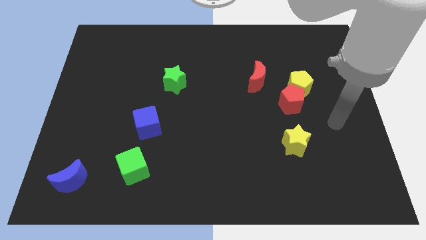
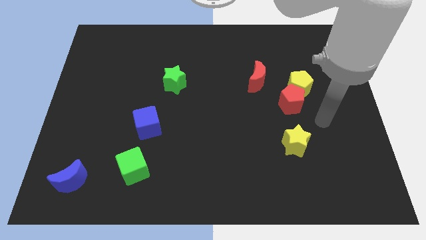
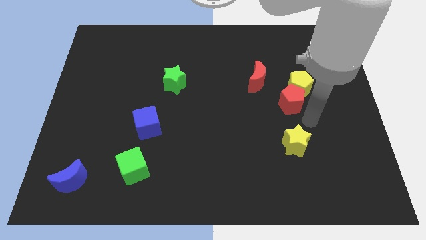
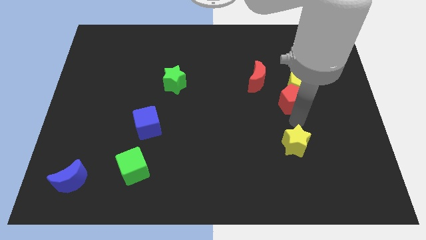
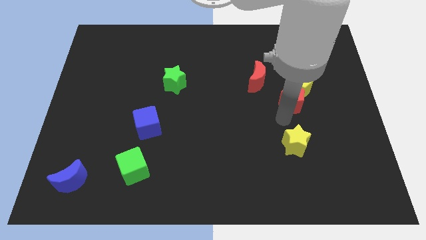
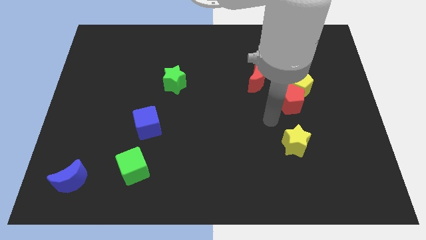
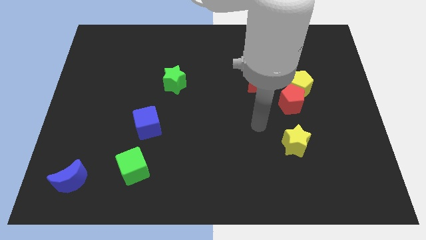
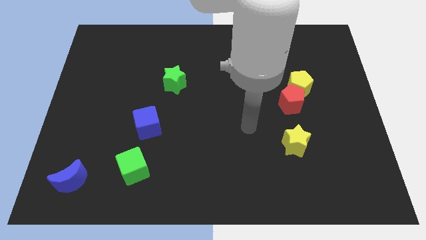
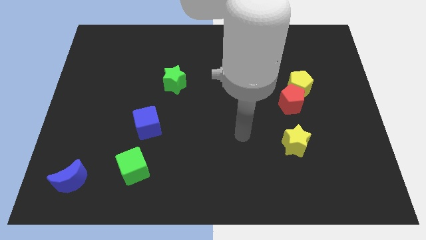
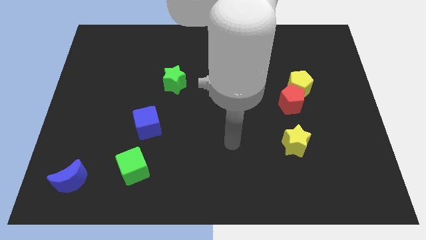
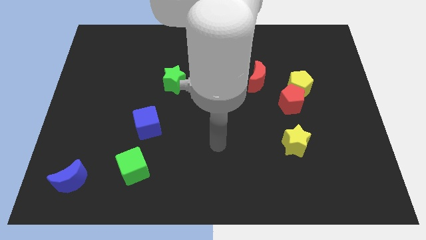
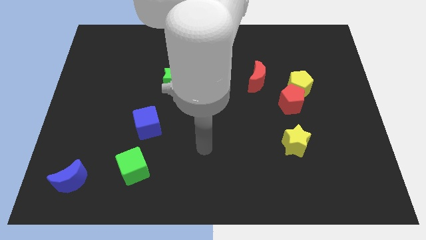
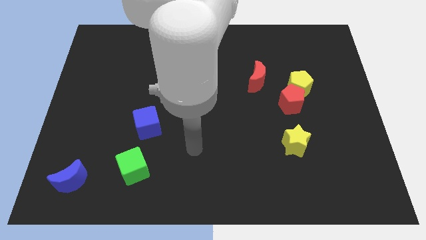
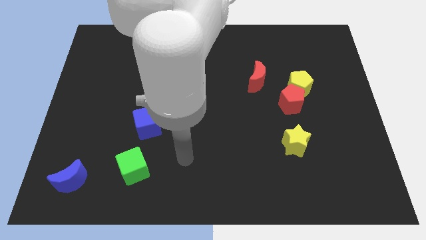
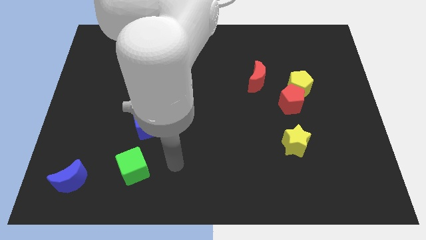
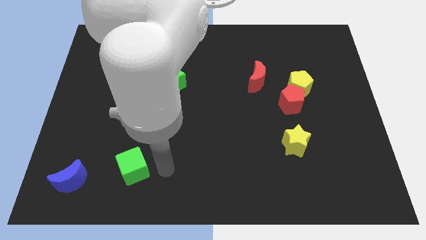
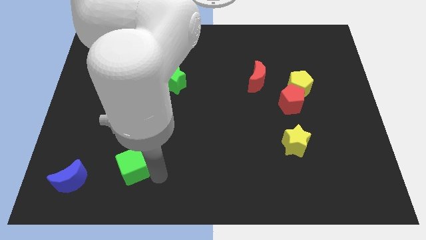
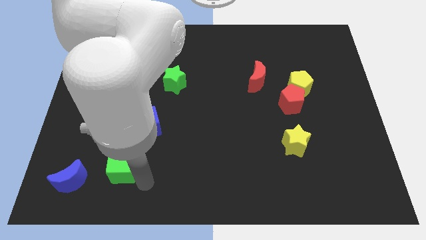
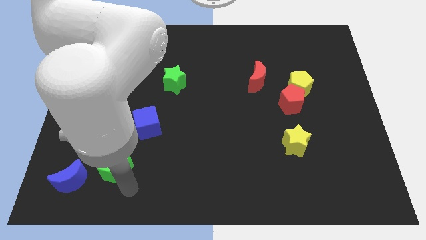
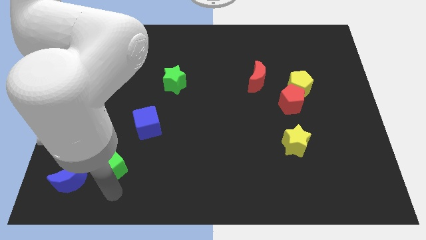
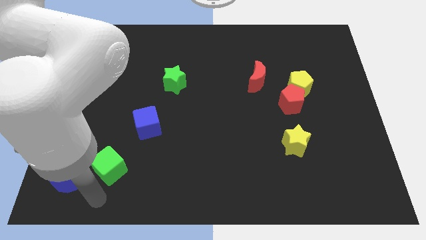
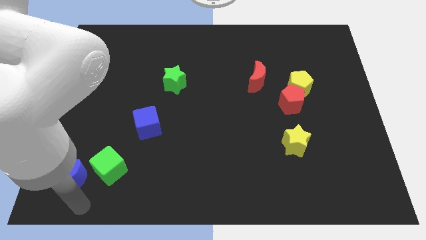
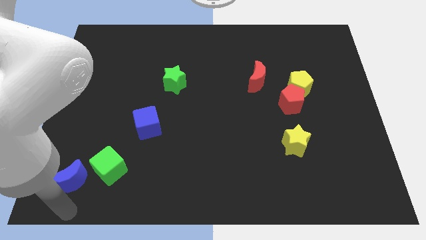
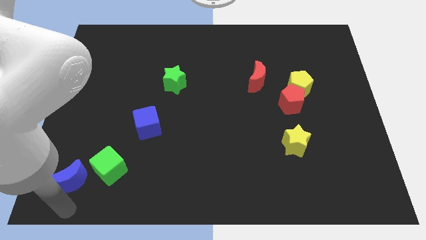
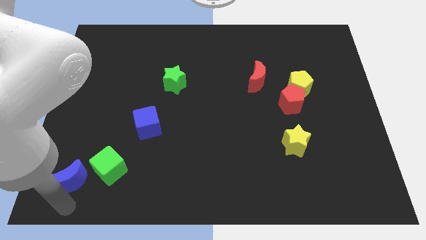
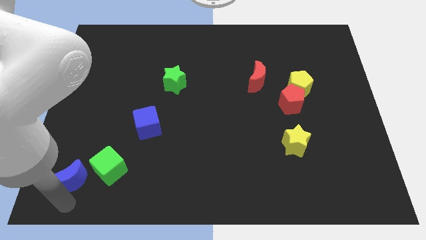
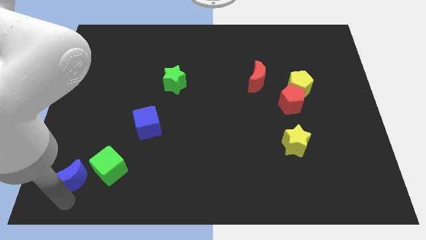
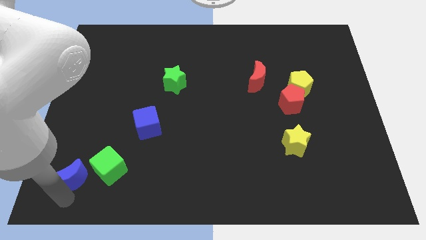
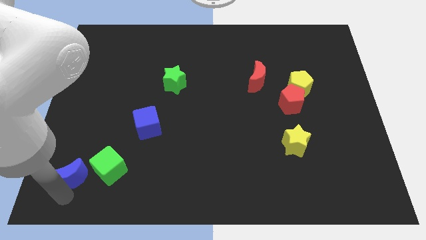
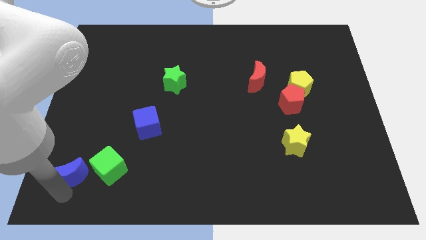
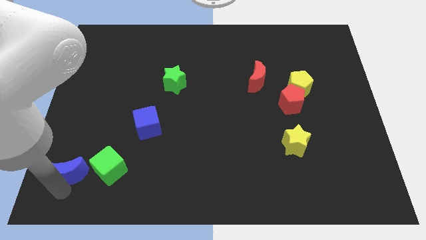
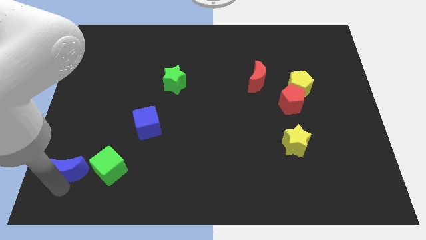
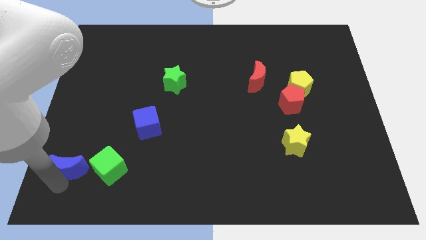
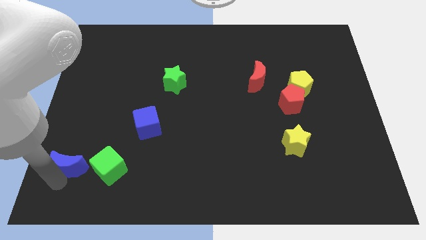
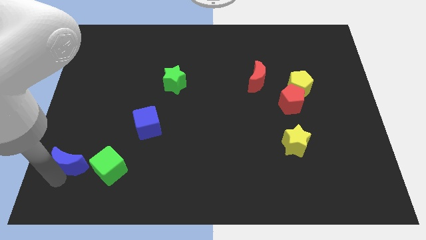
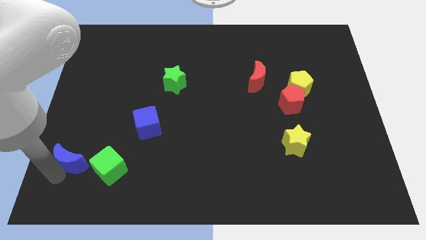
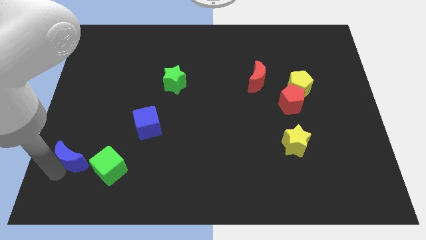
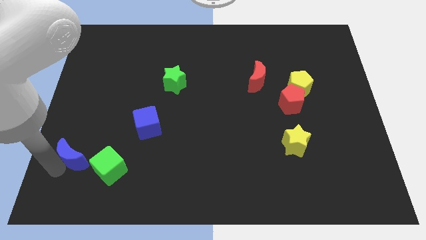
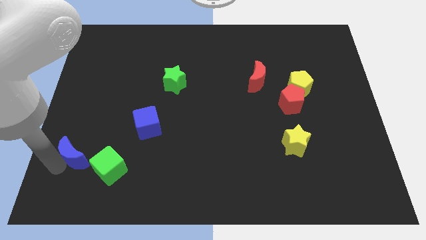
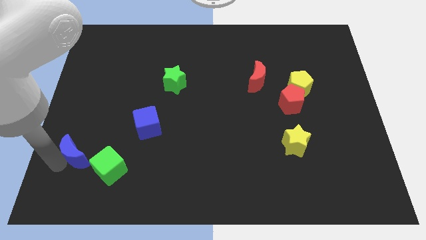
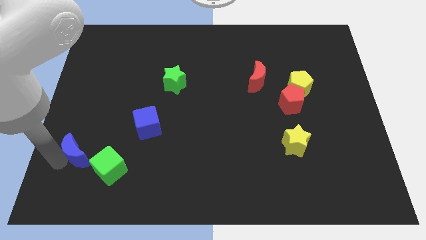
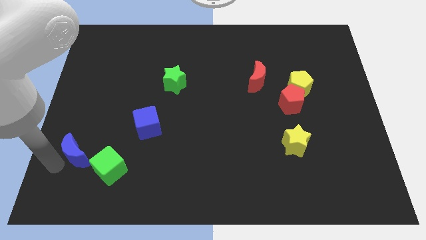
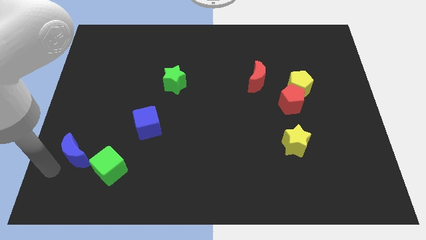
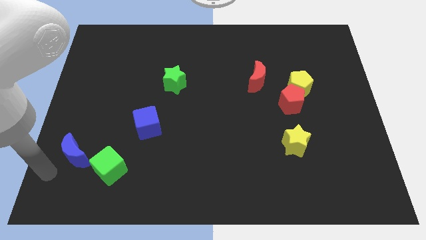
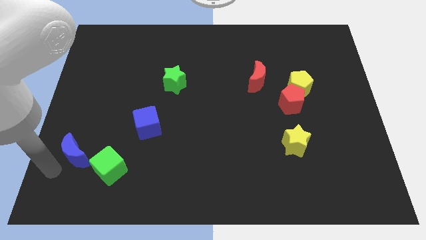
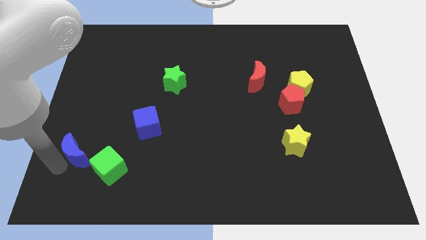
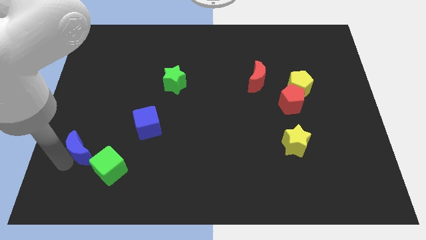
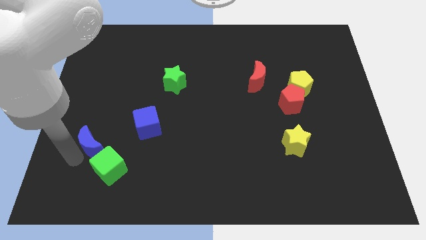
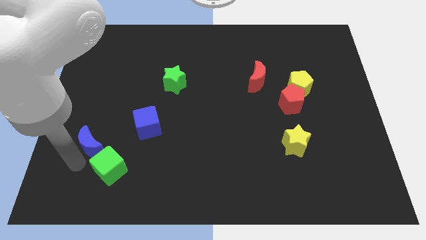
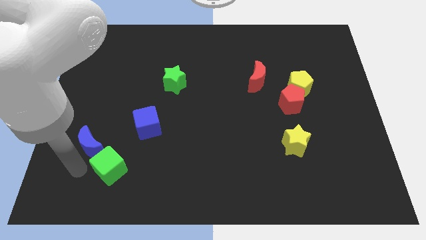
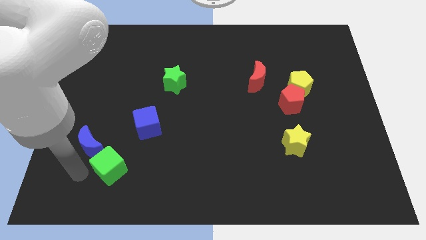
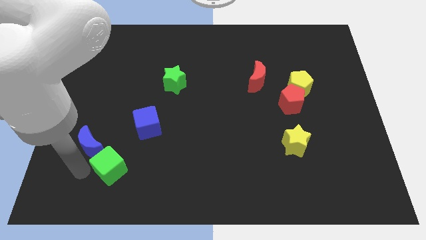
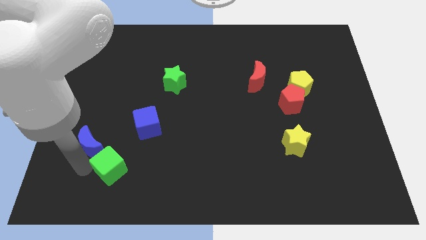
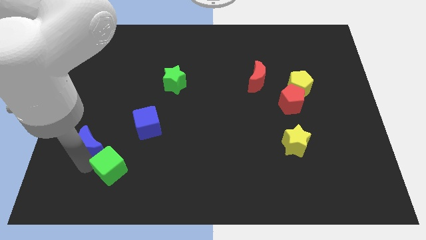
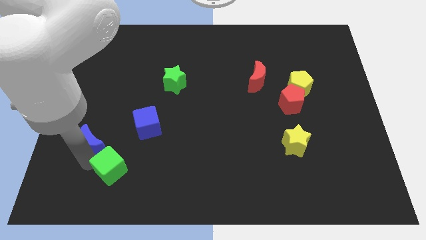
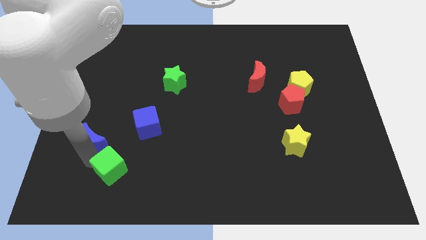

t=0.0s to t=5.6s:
move the blue moon left of the blue cube

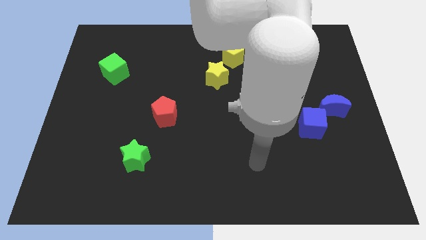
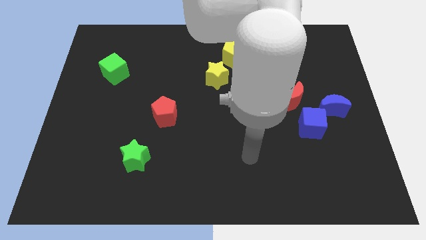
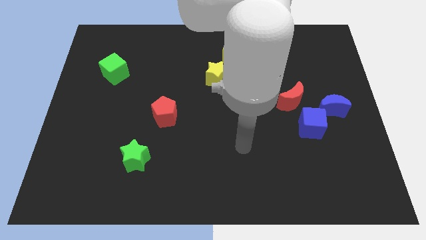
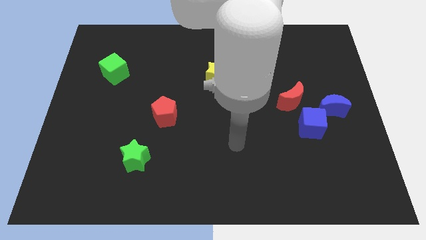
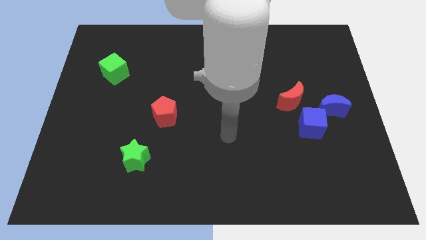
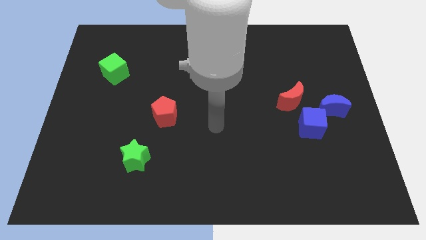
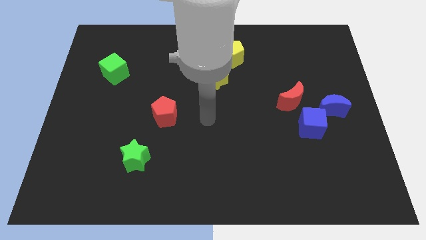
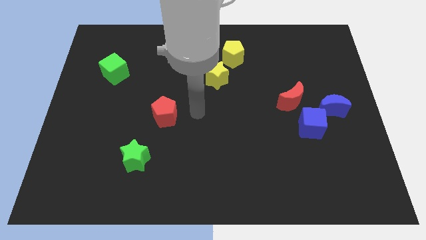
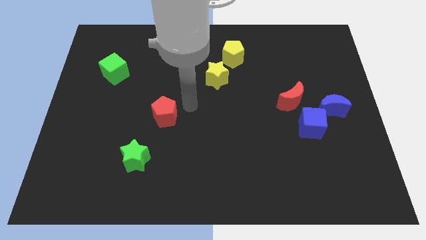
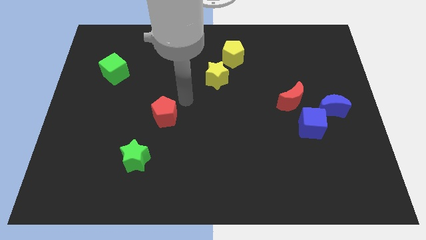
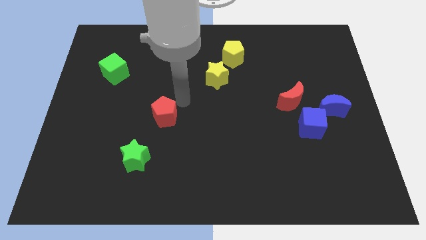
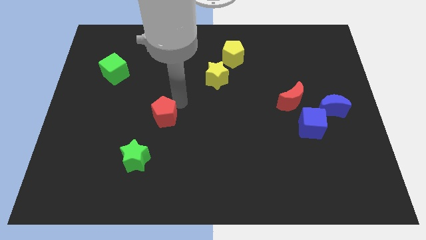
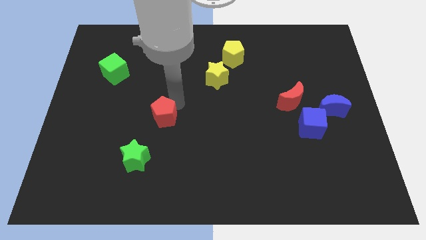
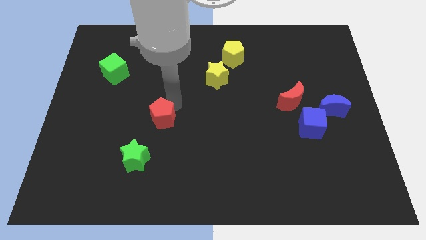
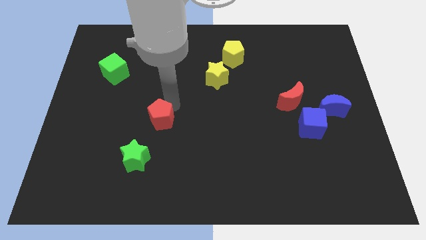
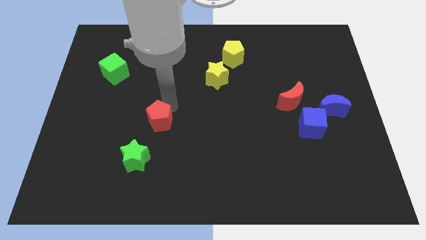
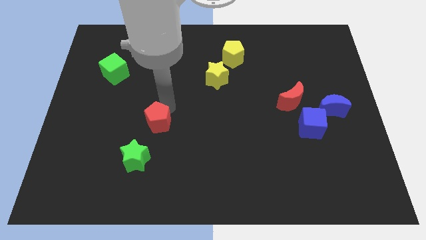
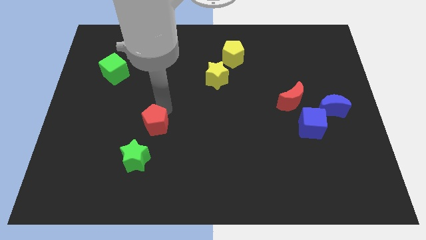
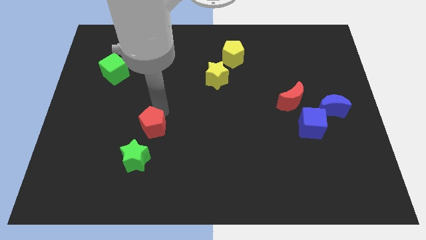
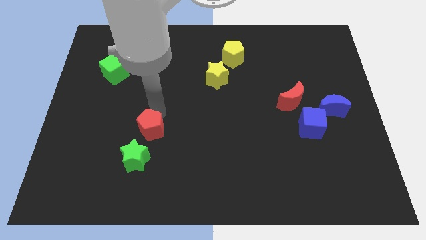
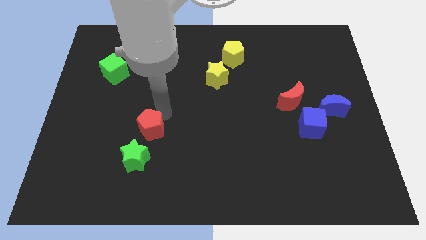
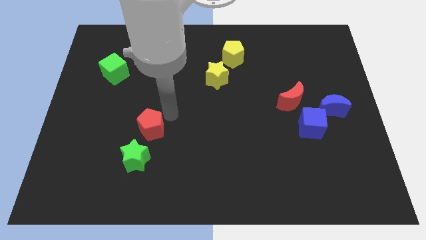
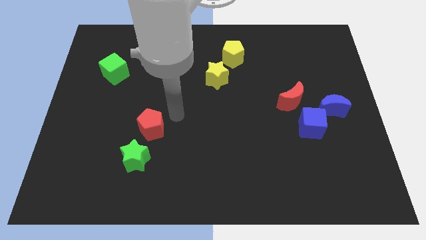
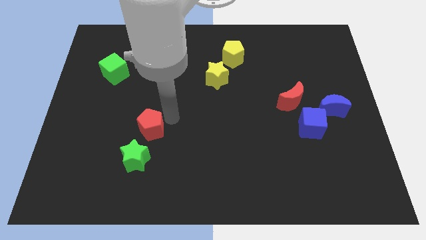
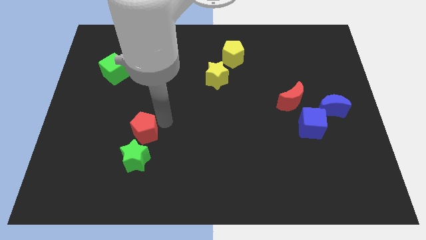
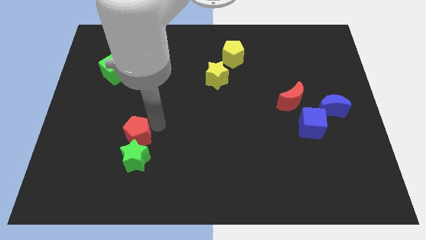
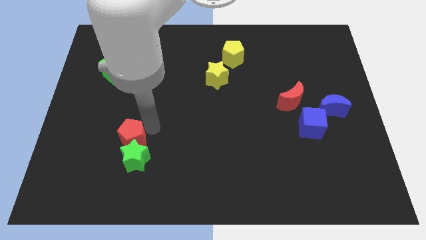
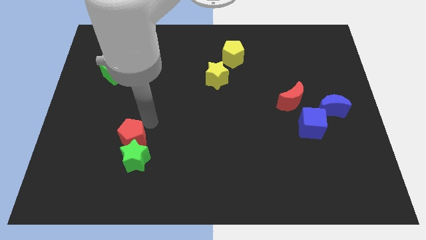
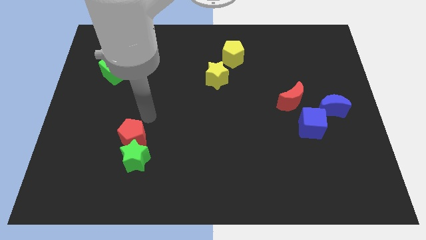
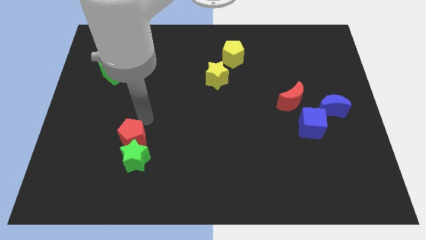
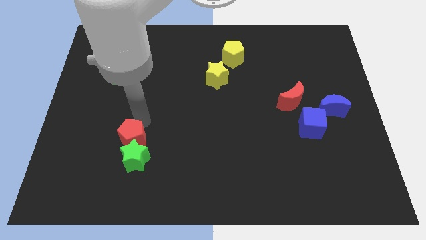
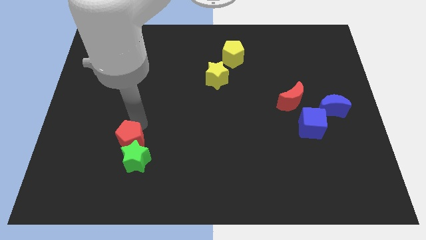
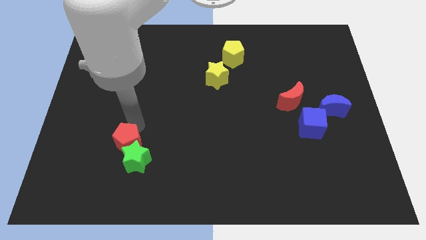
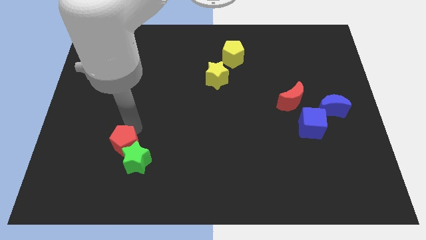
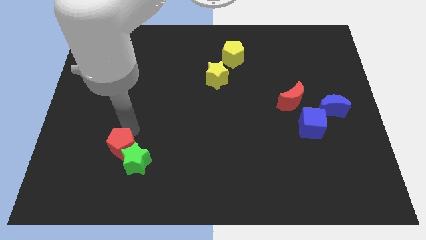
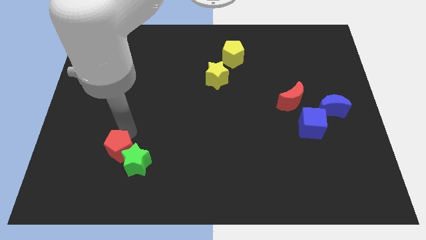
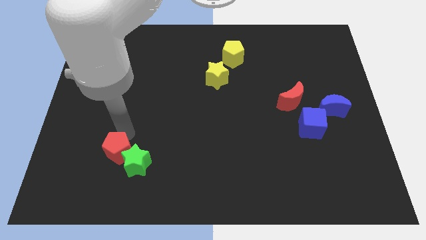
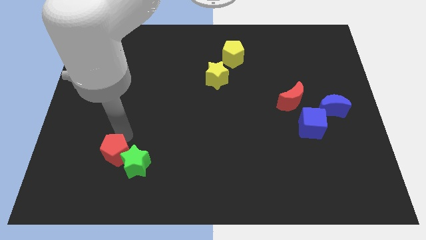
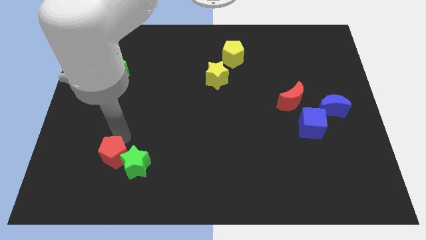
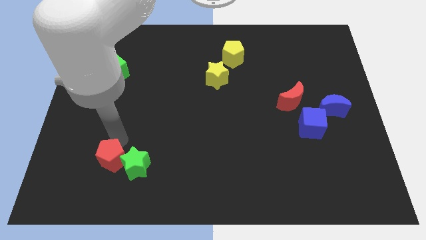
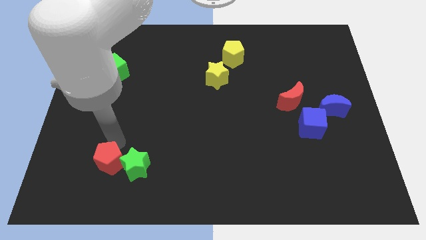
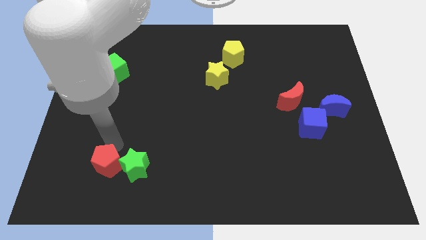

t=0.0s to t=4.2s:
move the red pentagon to the bottom left side of the green star
